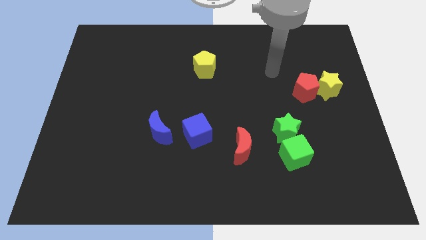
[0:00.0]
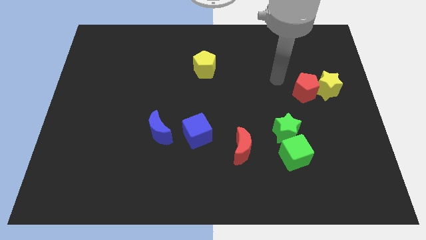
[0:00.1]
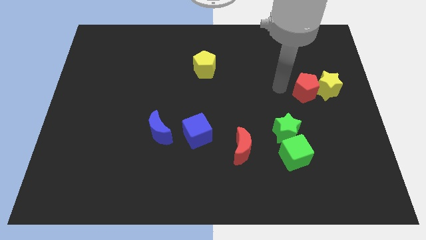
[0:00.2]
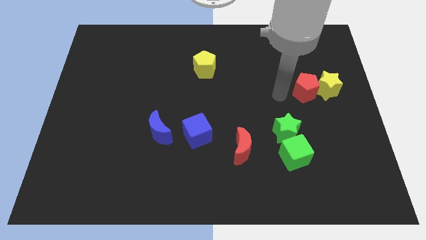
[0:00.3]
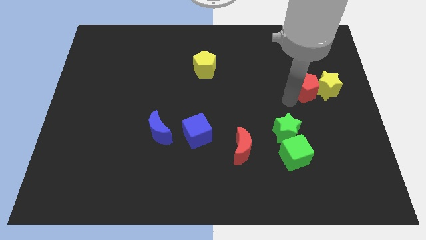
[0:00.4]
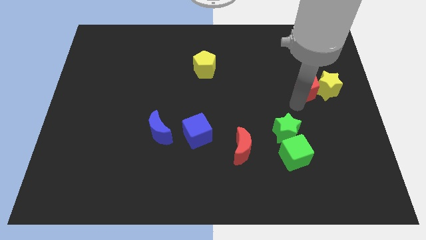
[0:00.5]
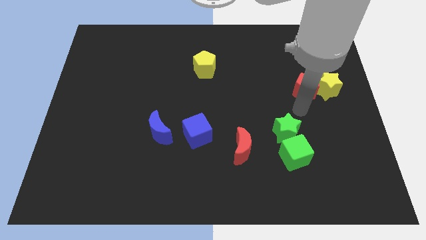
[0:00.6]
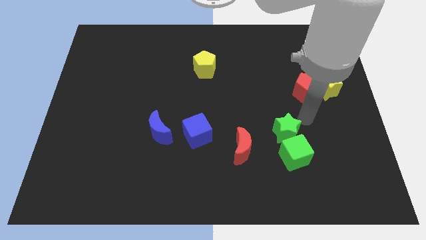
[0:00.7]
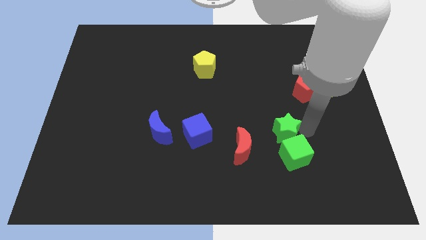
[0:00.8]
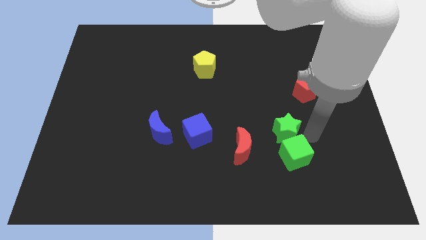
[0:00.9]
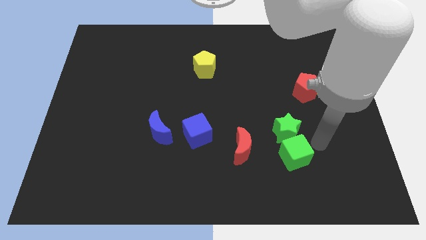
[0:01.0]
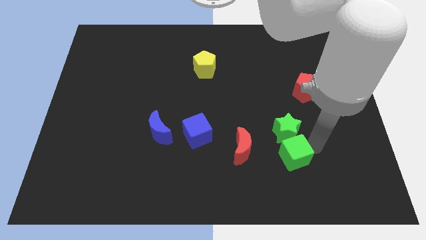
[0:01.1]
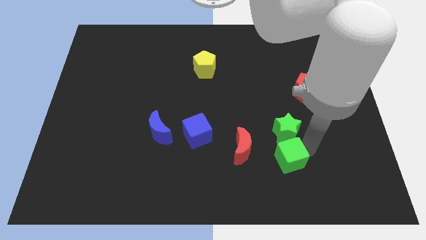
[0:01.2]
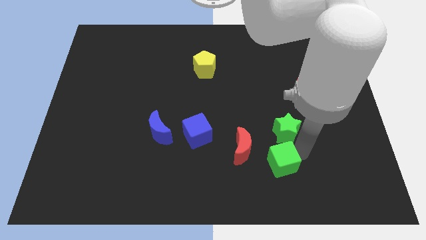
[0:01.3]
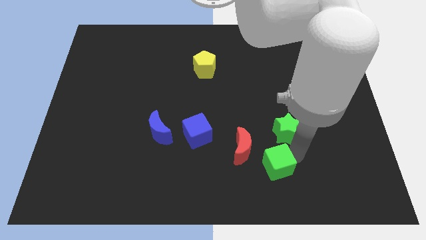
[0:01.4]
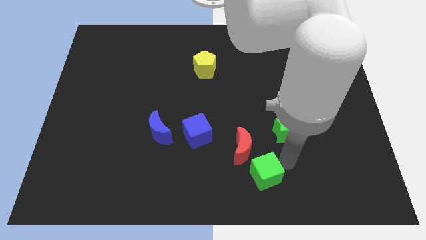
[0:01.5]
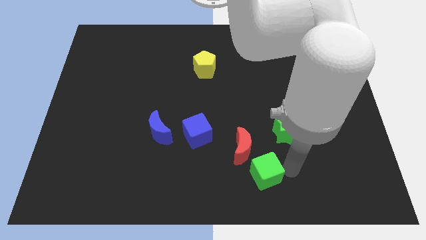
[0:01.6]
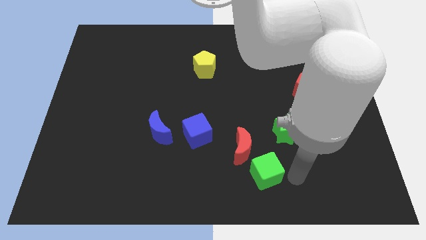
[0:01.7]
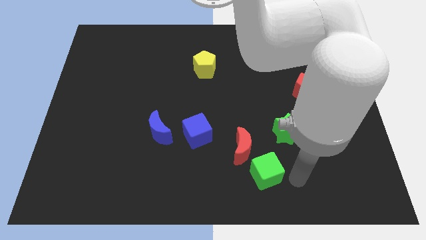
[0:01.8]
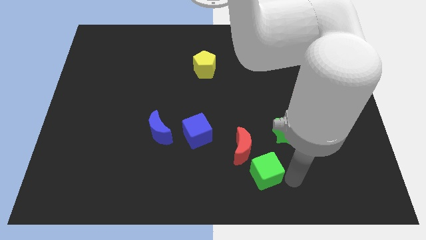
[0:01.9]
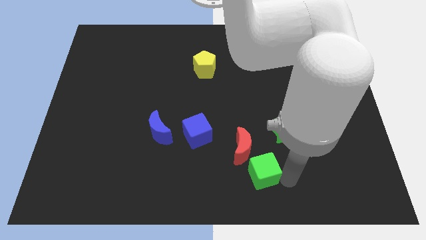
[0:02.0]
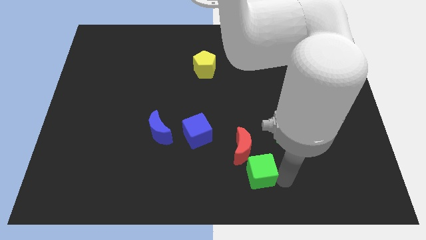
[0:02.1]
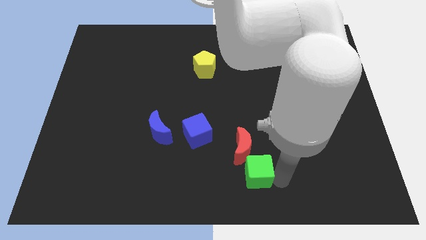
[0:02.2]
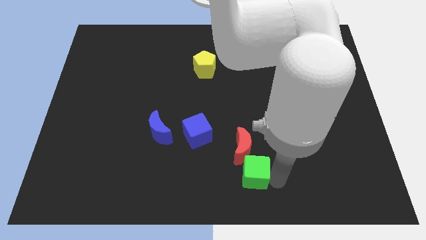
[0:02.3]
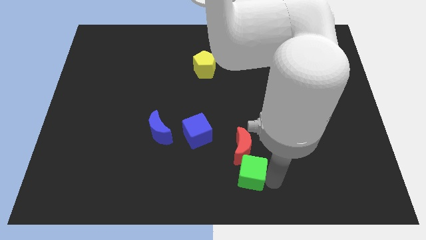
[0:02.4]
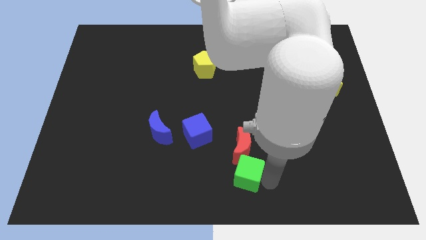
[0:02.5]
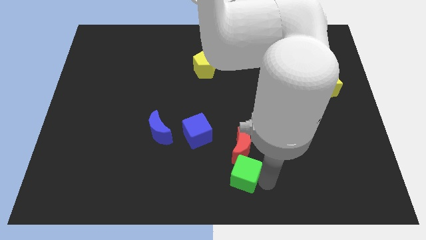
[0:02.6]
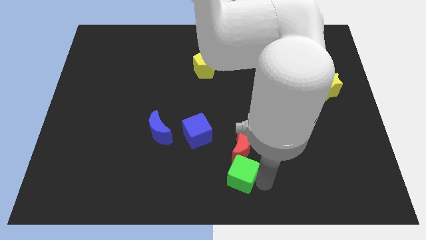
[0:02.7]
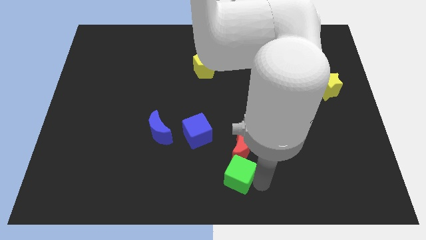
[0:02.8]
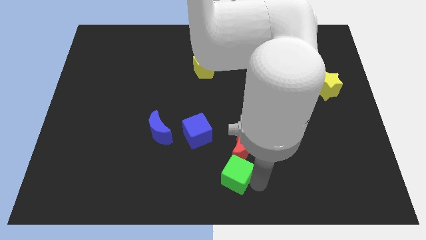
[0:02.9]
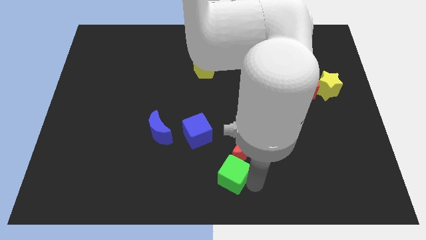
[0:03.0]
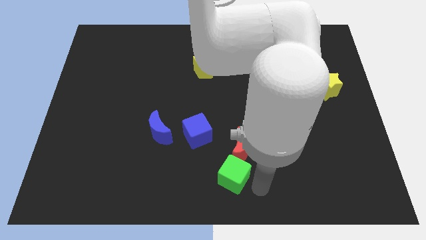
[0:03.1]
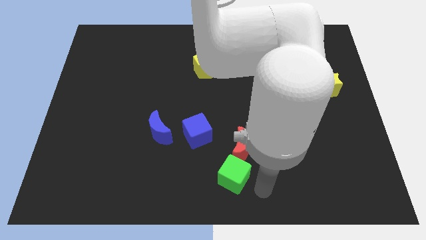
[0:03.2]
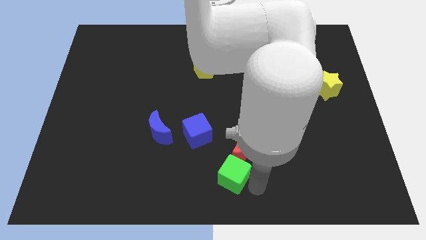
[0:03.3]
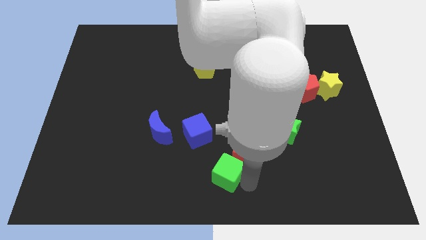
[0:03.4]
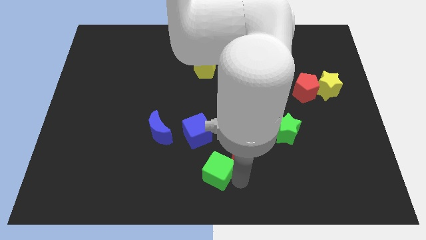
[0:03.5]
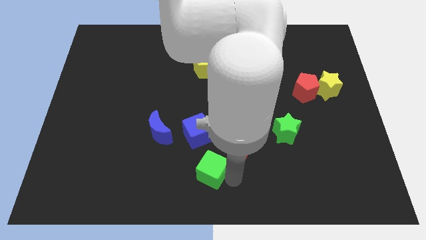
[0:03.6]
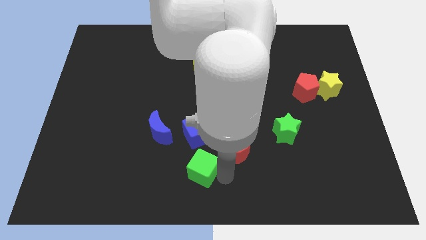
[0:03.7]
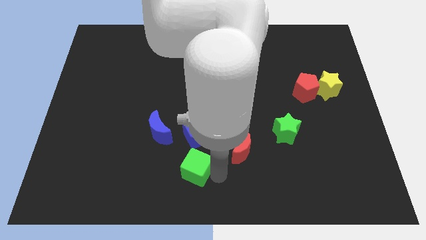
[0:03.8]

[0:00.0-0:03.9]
slide the green cube left

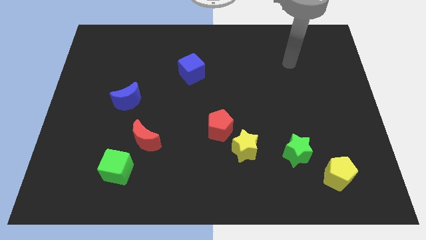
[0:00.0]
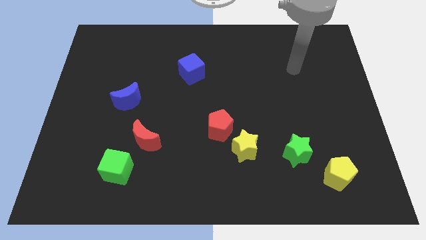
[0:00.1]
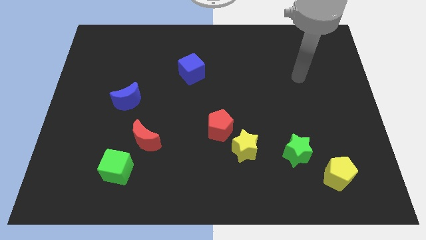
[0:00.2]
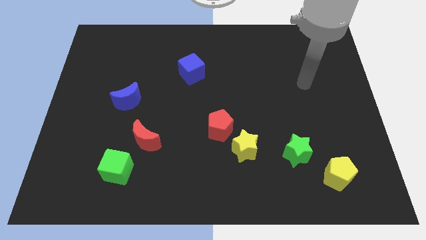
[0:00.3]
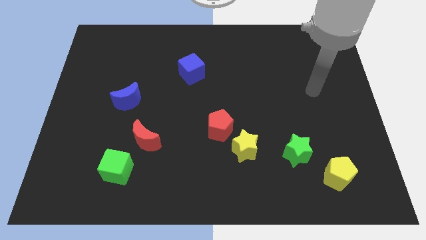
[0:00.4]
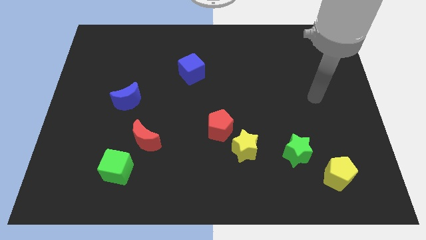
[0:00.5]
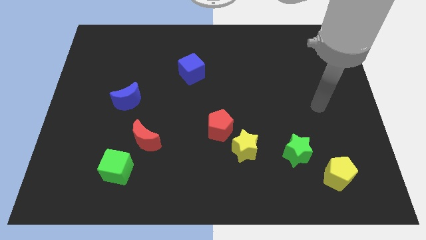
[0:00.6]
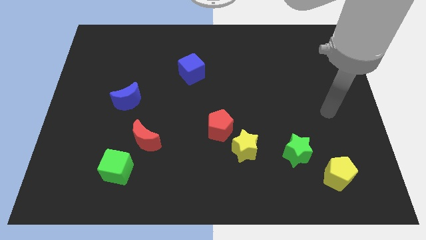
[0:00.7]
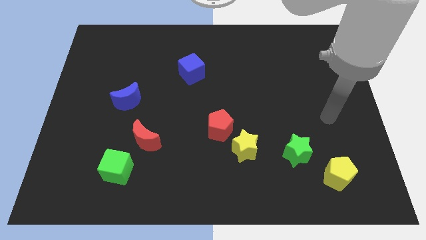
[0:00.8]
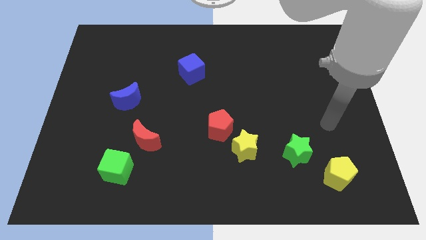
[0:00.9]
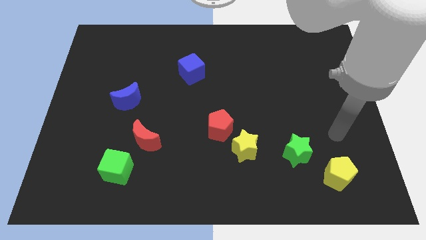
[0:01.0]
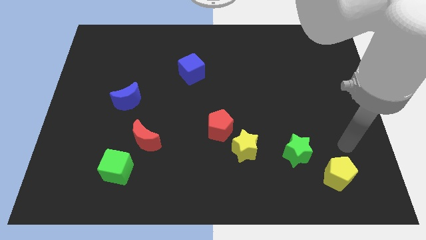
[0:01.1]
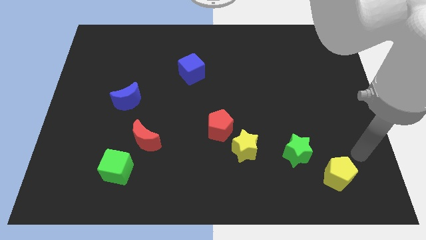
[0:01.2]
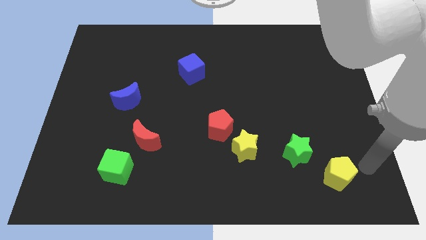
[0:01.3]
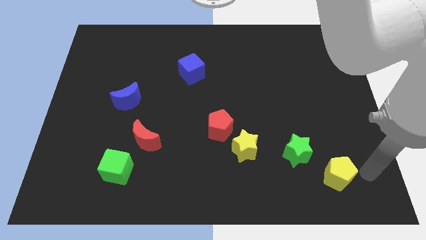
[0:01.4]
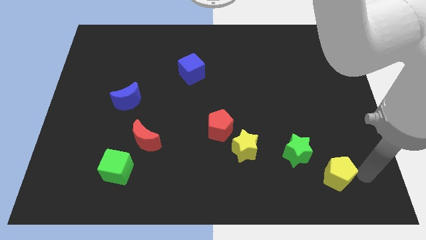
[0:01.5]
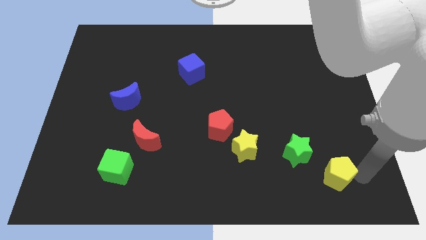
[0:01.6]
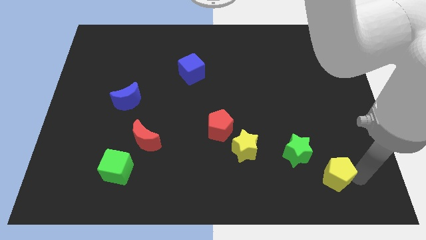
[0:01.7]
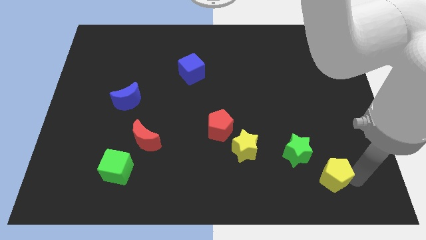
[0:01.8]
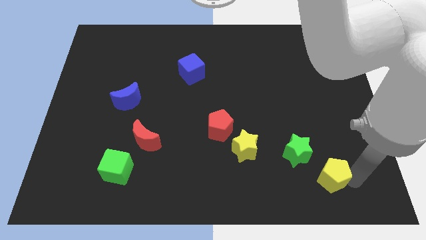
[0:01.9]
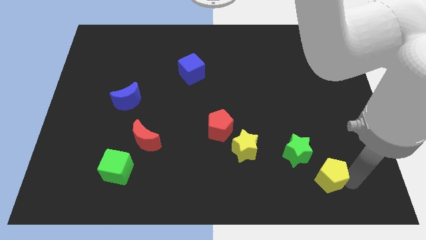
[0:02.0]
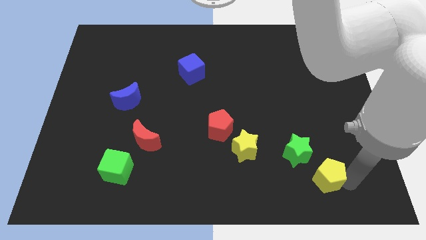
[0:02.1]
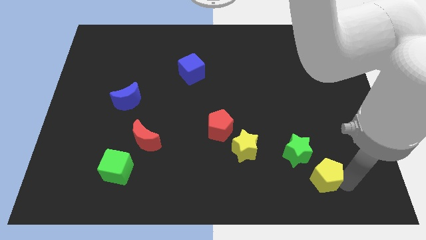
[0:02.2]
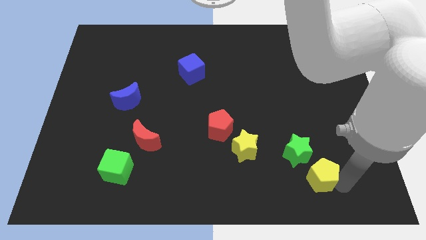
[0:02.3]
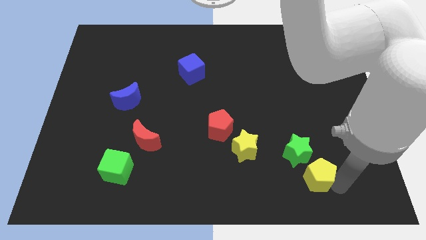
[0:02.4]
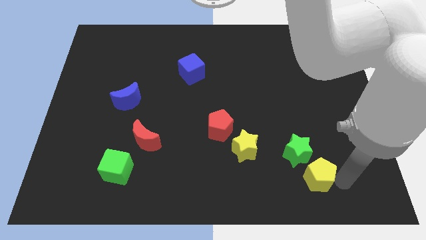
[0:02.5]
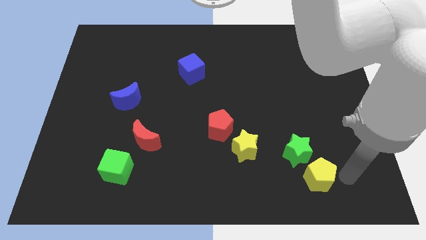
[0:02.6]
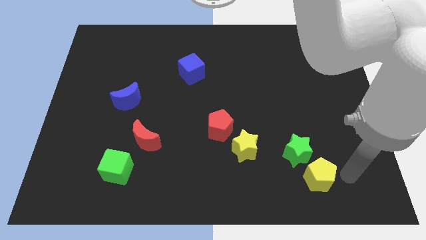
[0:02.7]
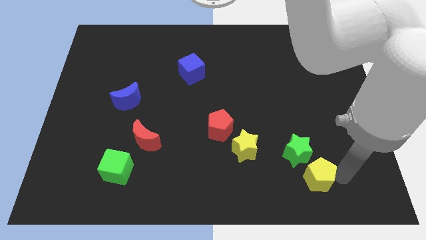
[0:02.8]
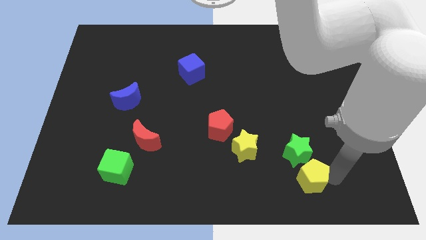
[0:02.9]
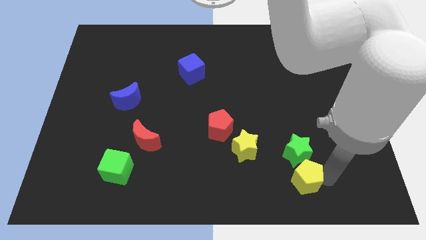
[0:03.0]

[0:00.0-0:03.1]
slide the yellow pentagon left a bit

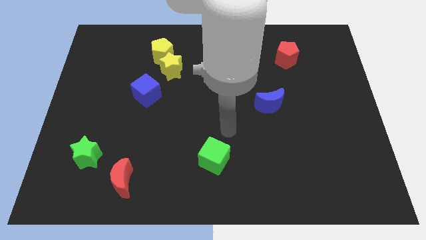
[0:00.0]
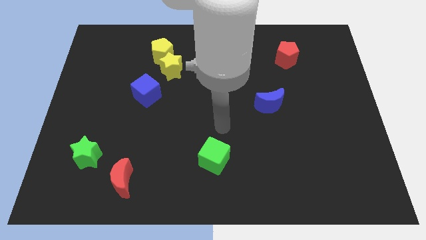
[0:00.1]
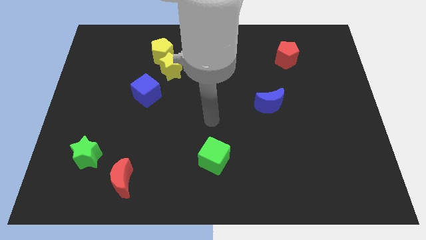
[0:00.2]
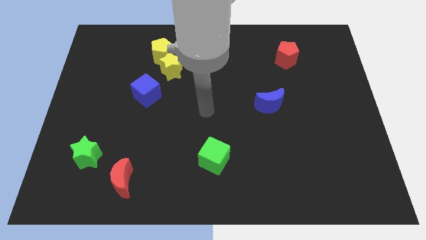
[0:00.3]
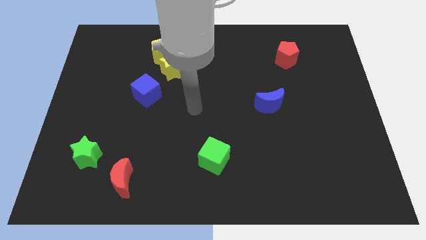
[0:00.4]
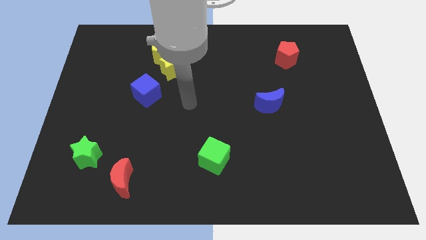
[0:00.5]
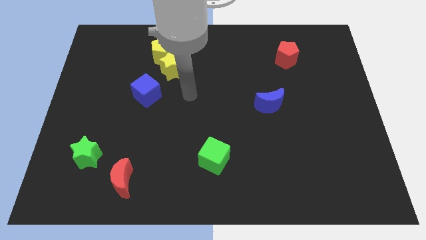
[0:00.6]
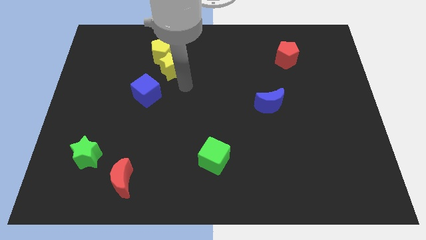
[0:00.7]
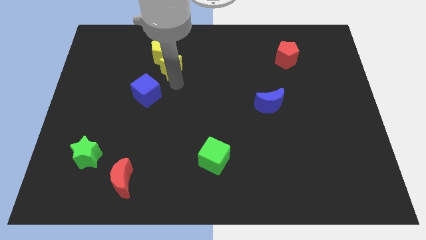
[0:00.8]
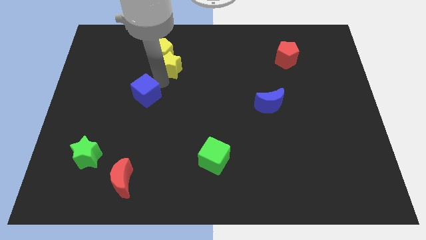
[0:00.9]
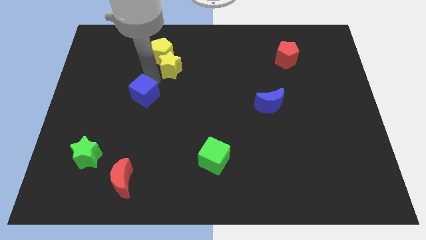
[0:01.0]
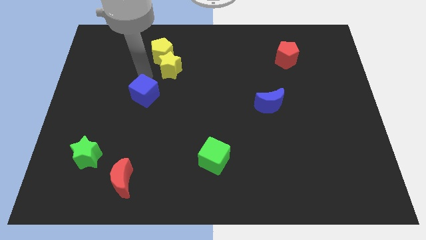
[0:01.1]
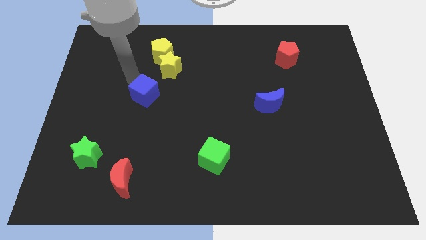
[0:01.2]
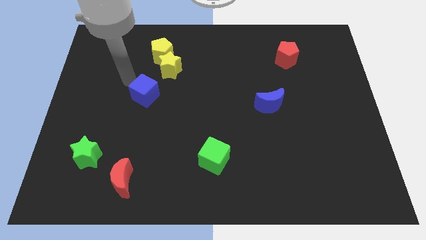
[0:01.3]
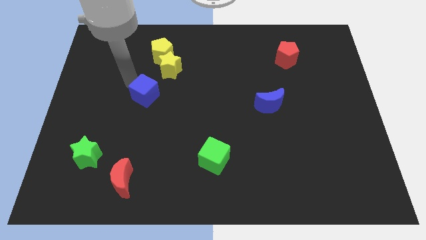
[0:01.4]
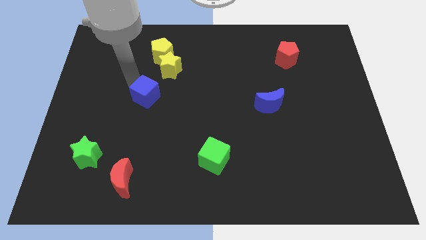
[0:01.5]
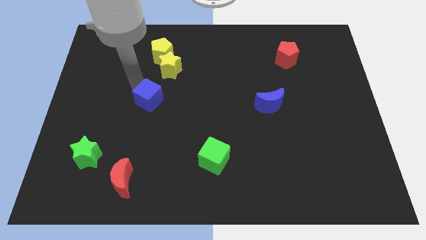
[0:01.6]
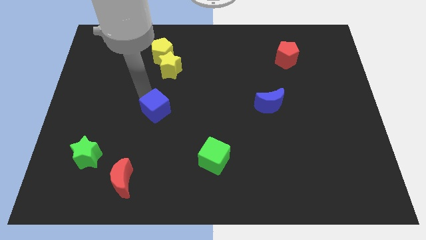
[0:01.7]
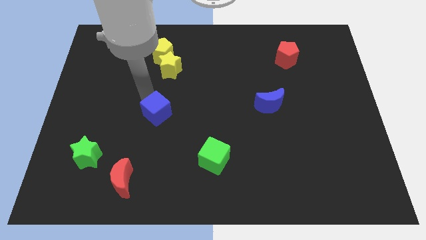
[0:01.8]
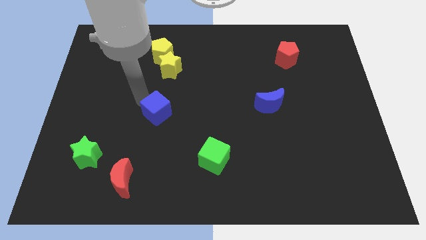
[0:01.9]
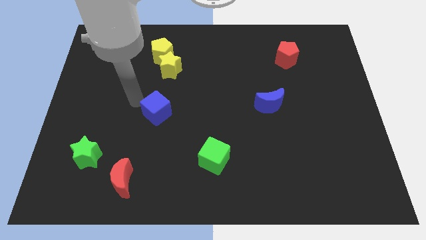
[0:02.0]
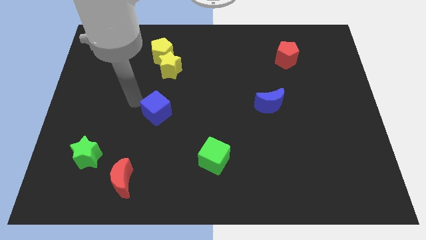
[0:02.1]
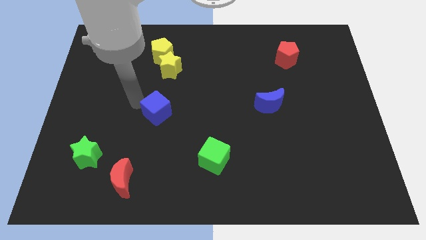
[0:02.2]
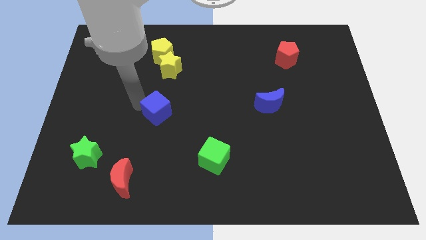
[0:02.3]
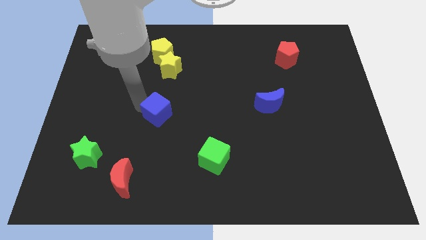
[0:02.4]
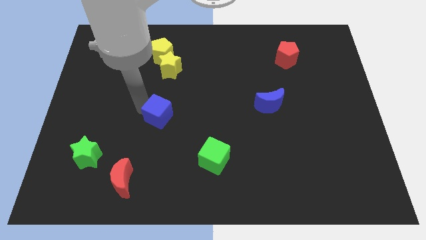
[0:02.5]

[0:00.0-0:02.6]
slide the blue cube downwards and to the right diagonally somewhat
